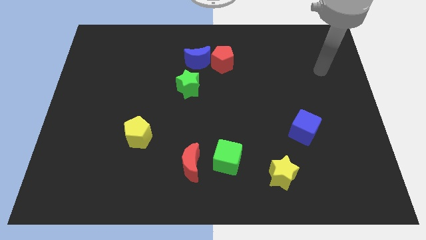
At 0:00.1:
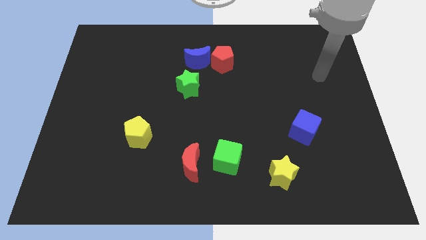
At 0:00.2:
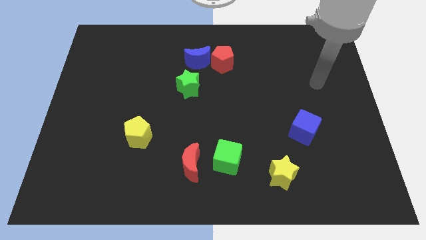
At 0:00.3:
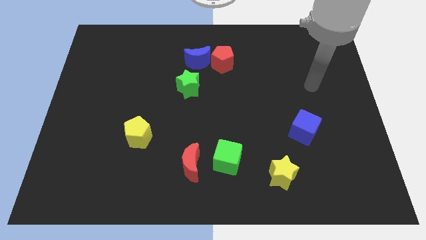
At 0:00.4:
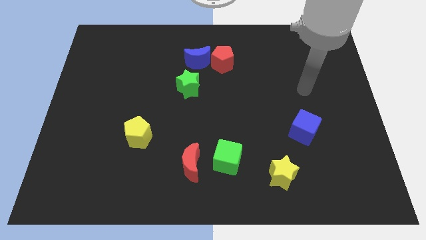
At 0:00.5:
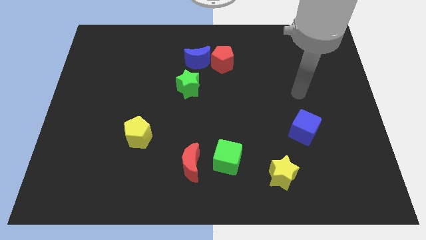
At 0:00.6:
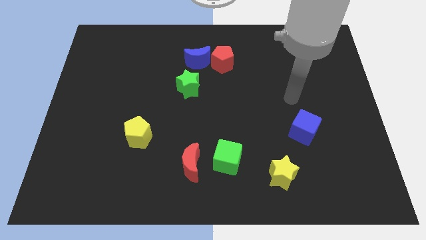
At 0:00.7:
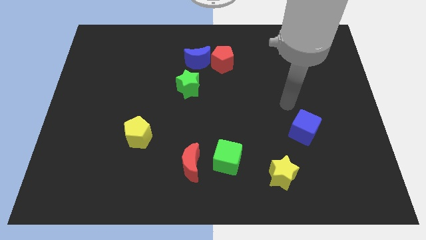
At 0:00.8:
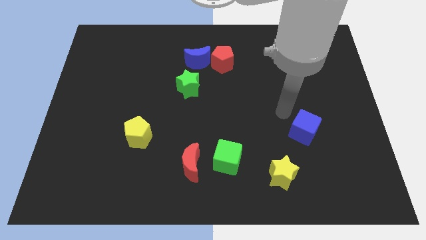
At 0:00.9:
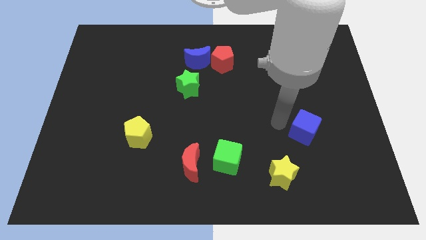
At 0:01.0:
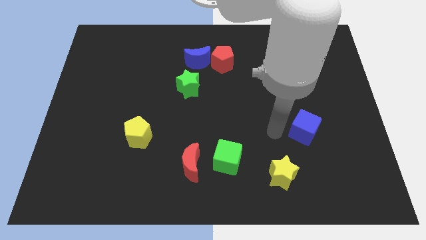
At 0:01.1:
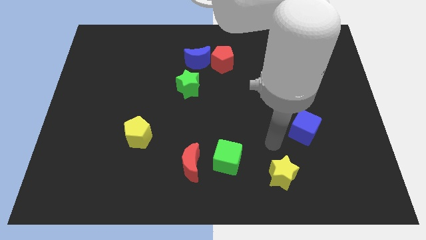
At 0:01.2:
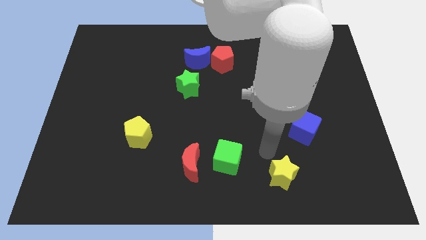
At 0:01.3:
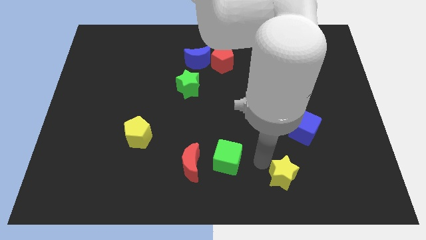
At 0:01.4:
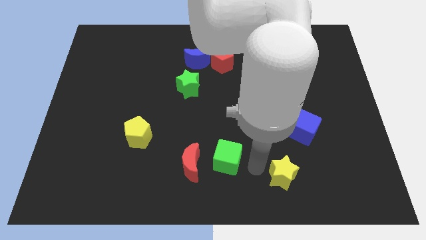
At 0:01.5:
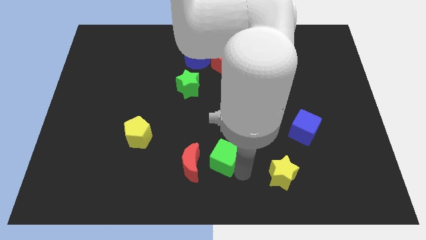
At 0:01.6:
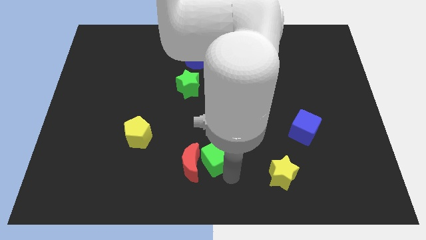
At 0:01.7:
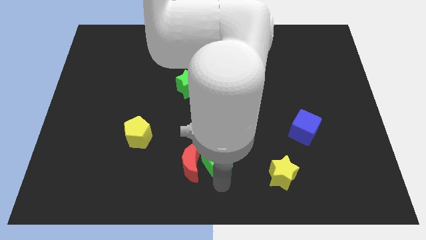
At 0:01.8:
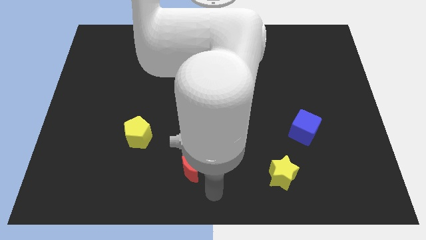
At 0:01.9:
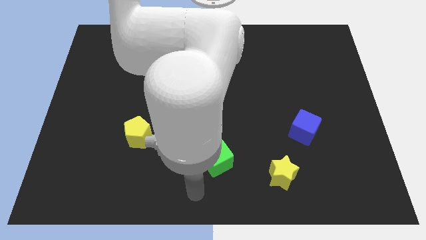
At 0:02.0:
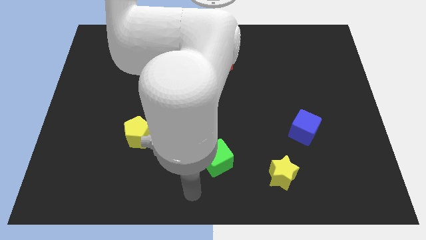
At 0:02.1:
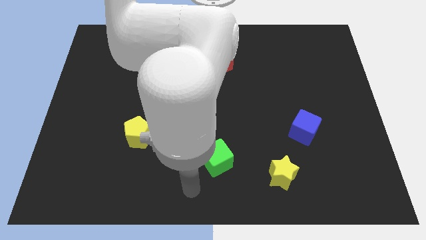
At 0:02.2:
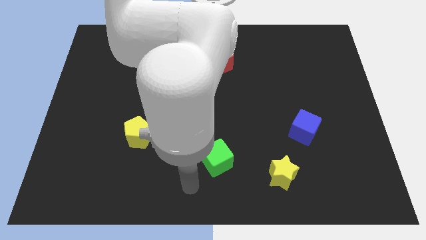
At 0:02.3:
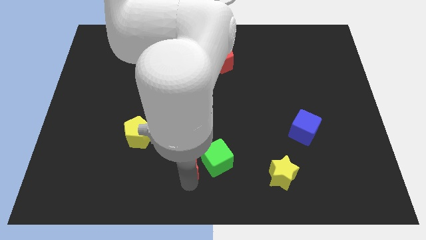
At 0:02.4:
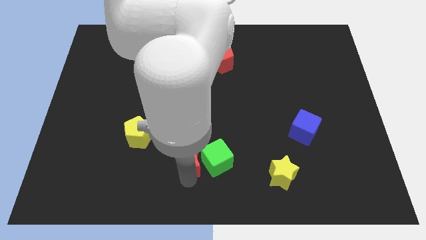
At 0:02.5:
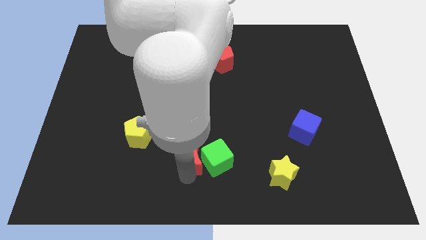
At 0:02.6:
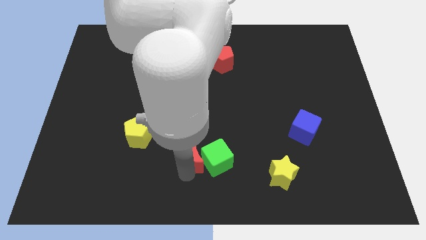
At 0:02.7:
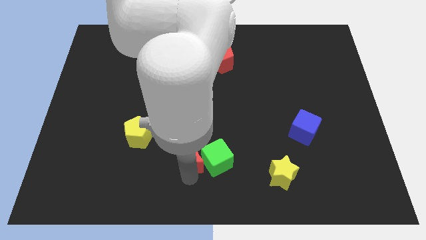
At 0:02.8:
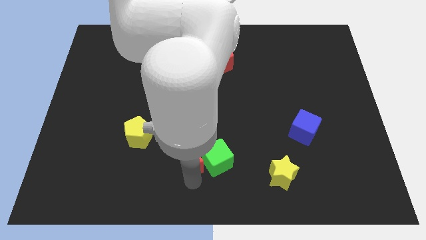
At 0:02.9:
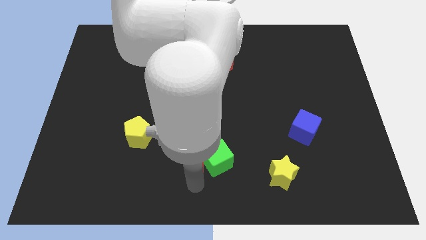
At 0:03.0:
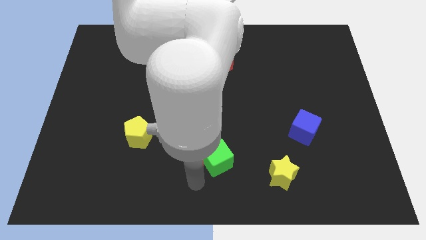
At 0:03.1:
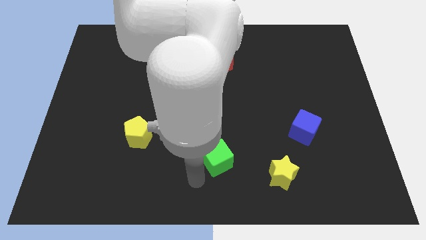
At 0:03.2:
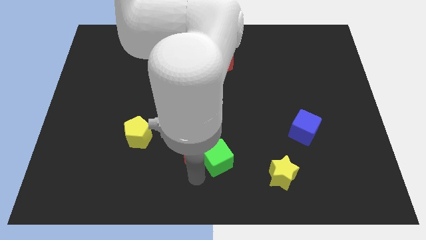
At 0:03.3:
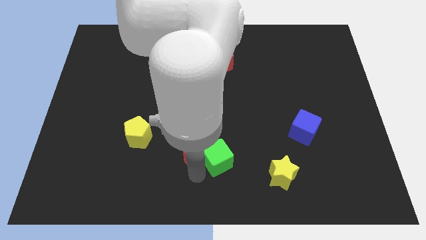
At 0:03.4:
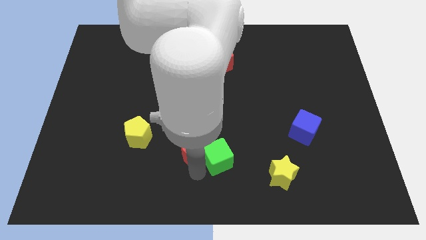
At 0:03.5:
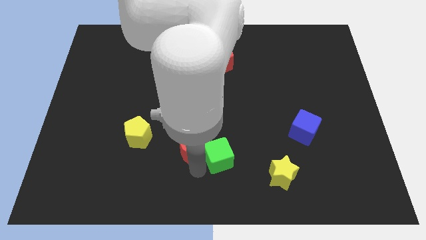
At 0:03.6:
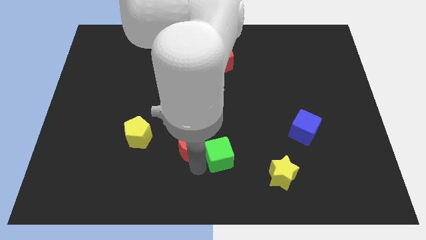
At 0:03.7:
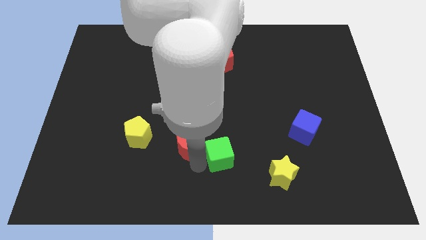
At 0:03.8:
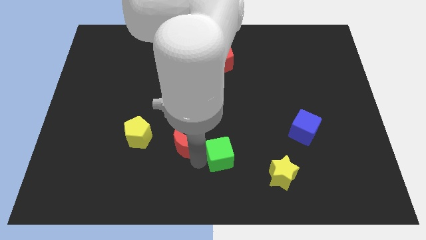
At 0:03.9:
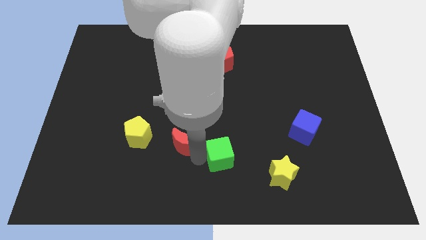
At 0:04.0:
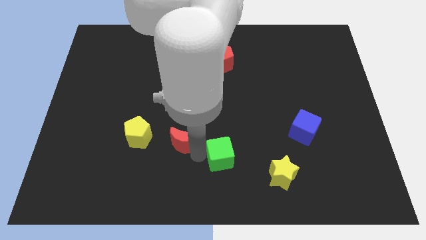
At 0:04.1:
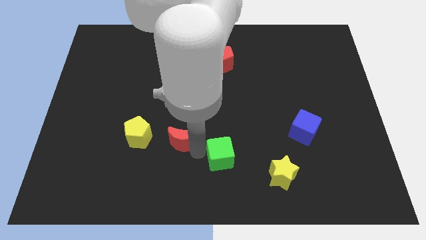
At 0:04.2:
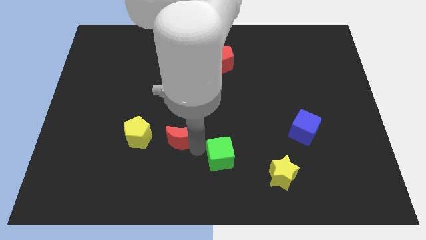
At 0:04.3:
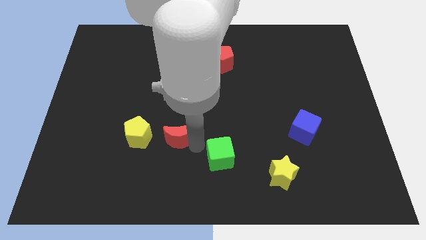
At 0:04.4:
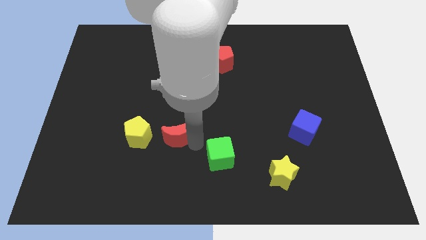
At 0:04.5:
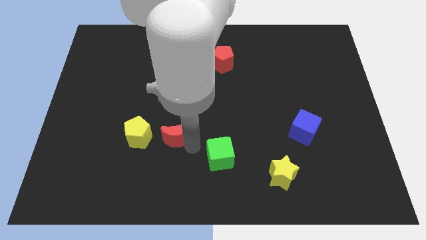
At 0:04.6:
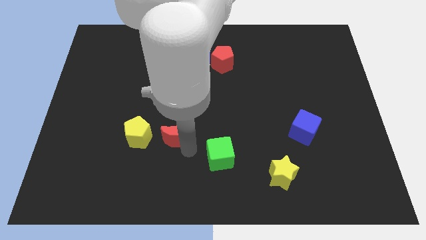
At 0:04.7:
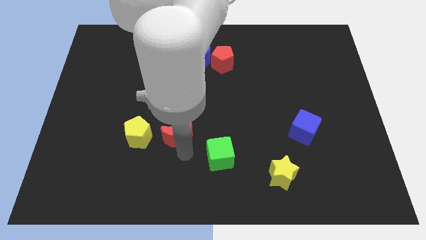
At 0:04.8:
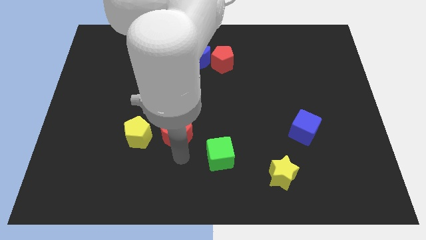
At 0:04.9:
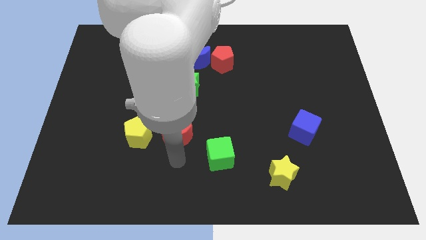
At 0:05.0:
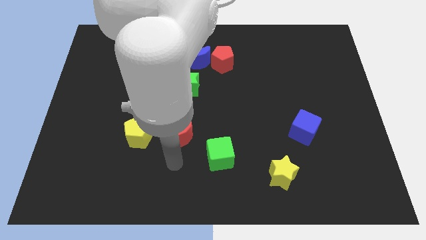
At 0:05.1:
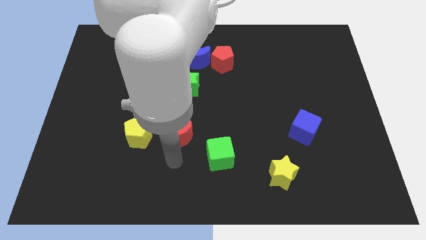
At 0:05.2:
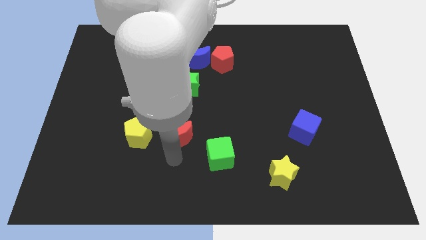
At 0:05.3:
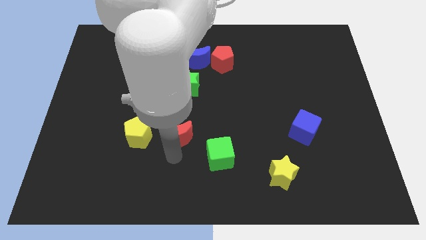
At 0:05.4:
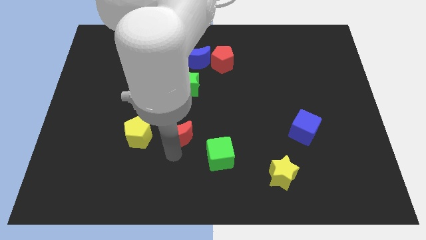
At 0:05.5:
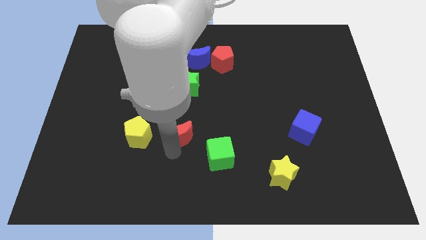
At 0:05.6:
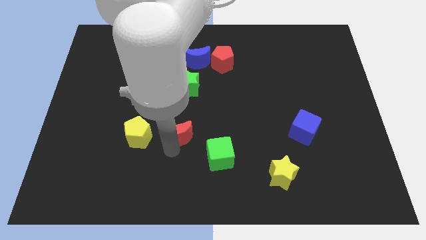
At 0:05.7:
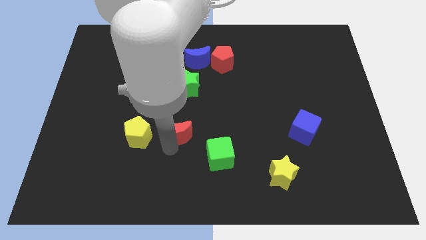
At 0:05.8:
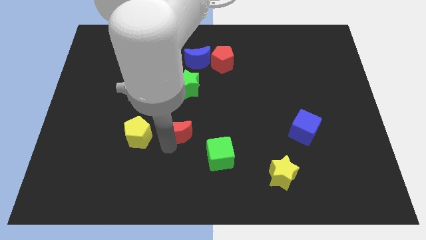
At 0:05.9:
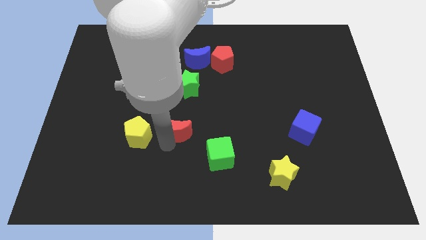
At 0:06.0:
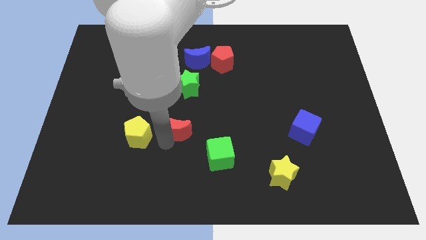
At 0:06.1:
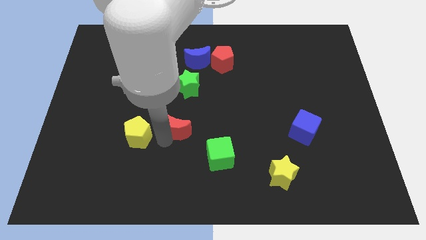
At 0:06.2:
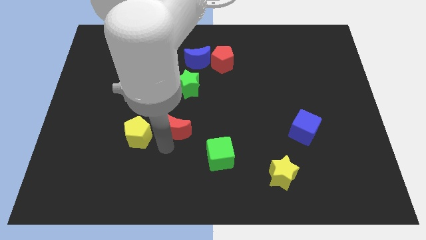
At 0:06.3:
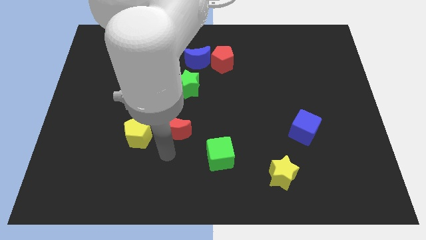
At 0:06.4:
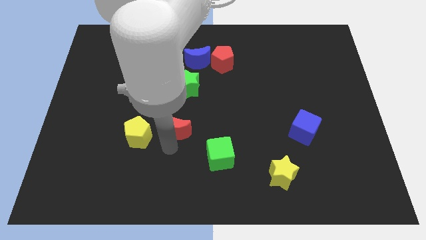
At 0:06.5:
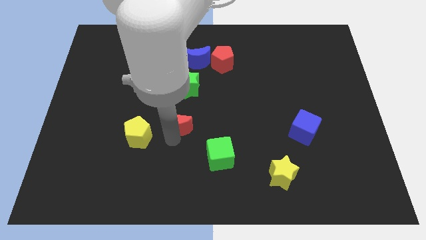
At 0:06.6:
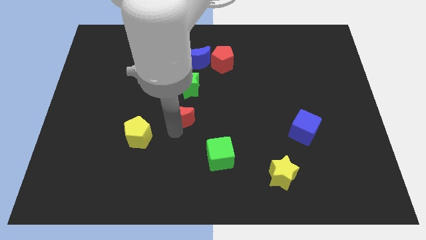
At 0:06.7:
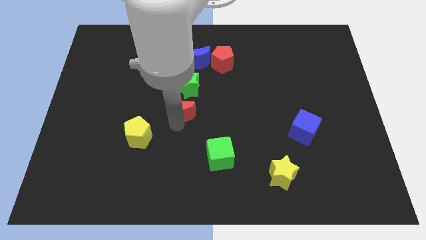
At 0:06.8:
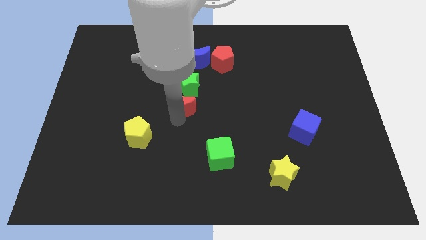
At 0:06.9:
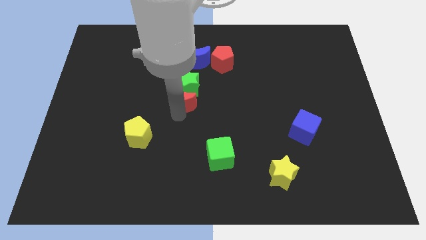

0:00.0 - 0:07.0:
put the red moon close to the green star

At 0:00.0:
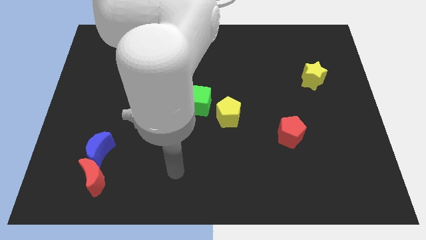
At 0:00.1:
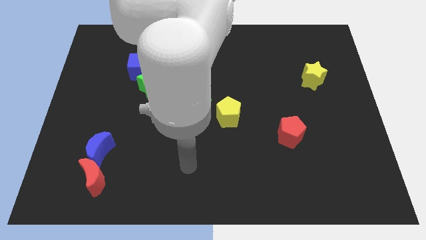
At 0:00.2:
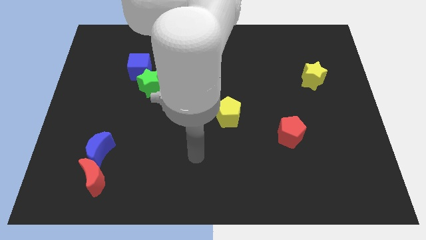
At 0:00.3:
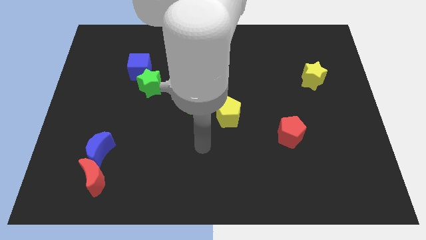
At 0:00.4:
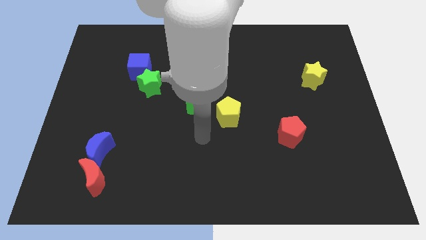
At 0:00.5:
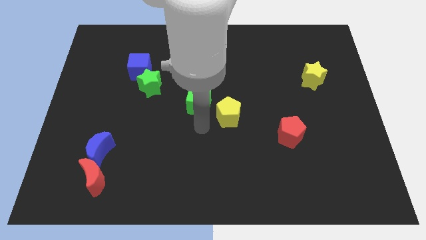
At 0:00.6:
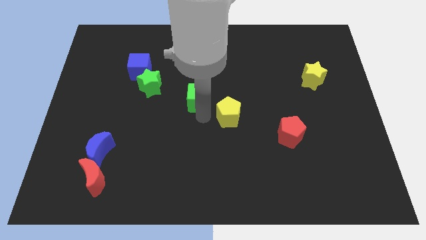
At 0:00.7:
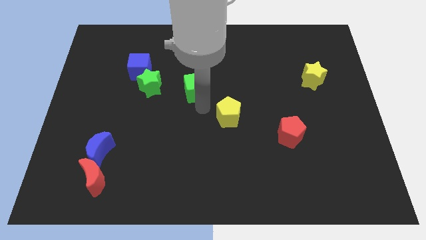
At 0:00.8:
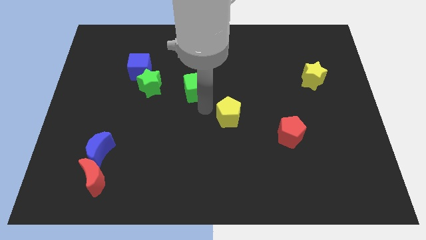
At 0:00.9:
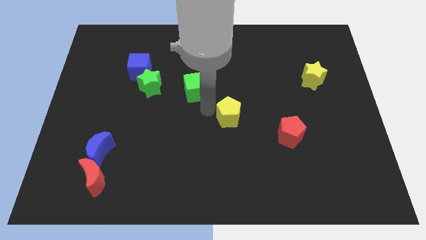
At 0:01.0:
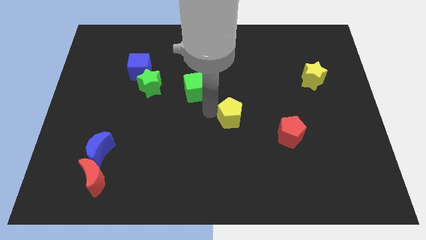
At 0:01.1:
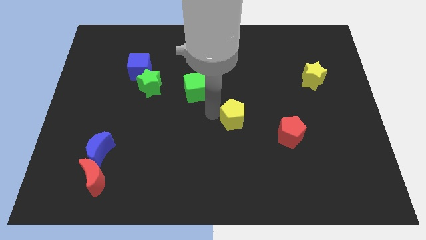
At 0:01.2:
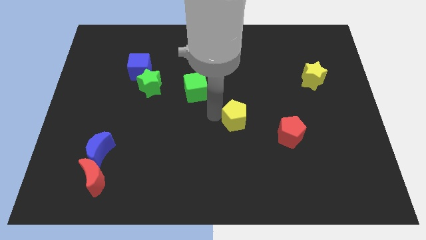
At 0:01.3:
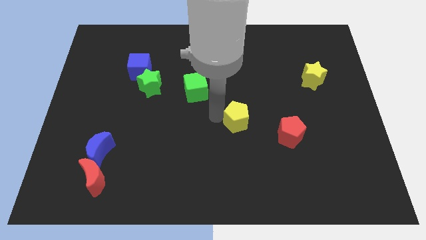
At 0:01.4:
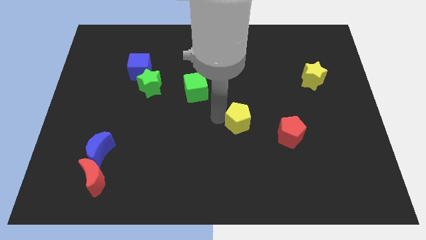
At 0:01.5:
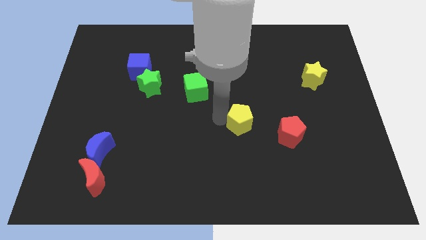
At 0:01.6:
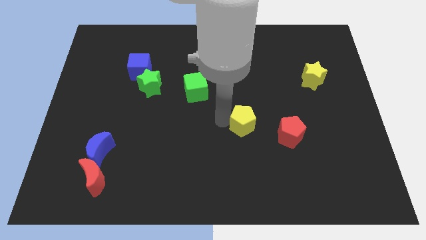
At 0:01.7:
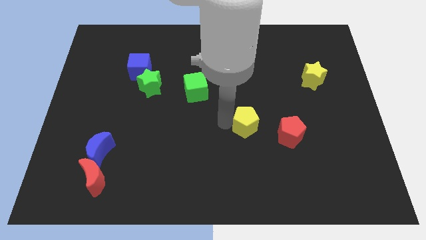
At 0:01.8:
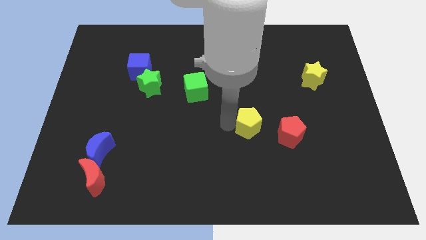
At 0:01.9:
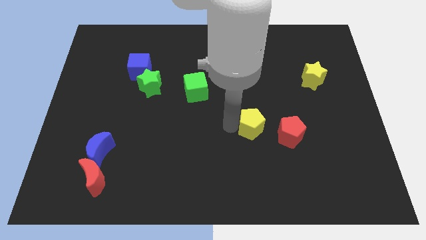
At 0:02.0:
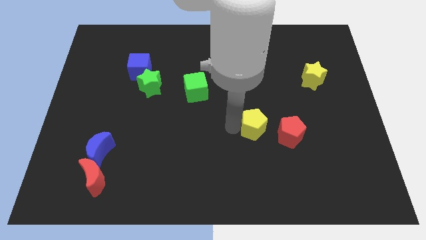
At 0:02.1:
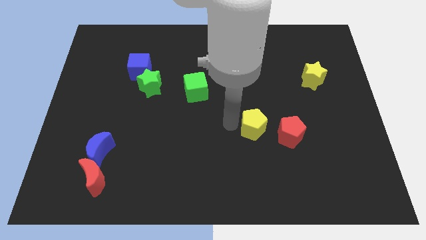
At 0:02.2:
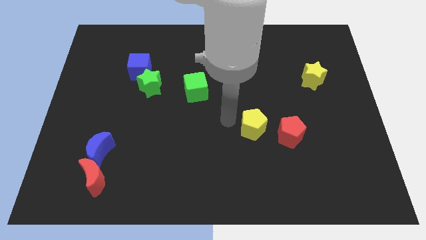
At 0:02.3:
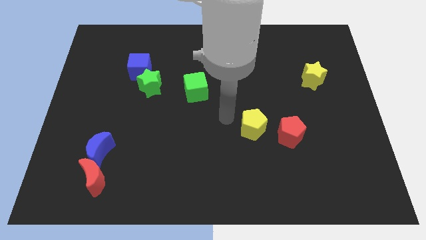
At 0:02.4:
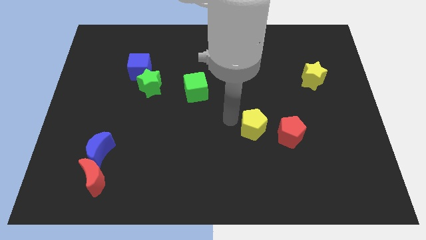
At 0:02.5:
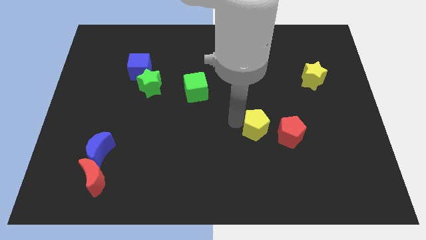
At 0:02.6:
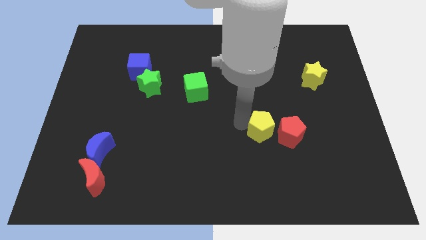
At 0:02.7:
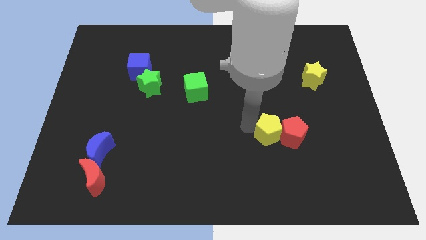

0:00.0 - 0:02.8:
put the yellow pentagon towards the red pentagon
